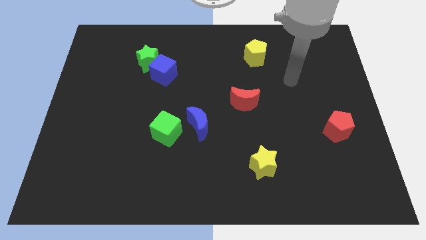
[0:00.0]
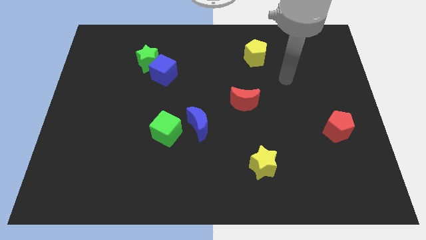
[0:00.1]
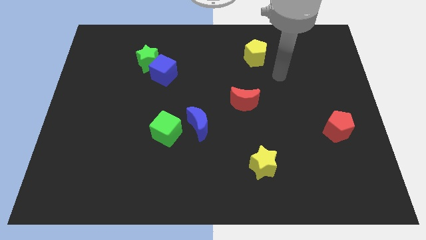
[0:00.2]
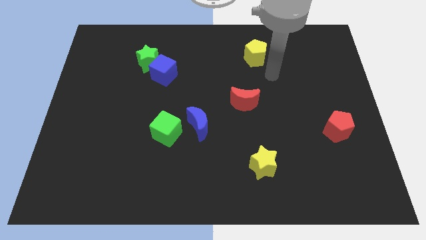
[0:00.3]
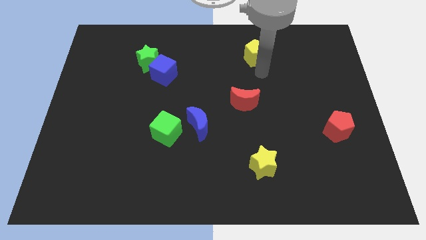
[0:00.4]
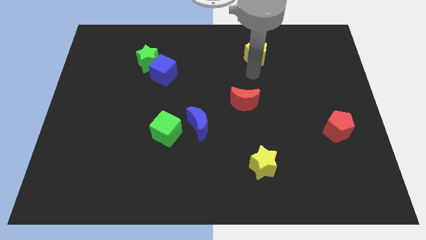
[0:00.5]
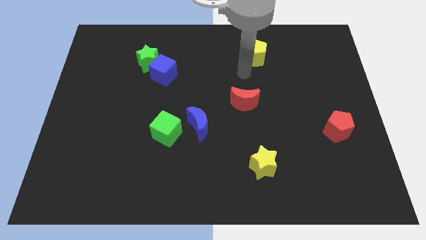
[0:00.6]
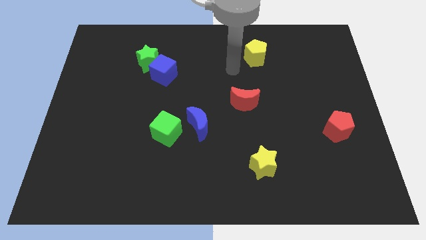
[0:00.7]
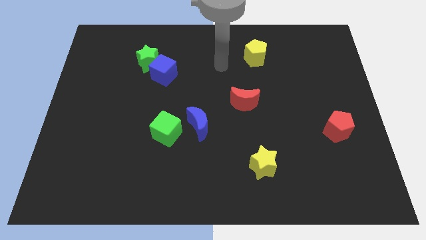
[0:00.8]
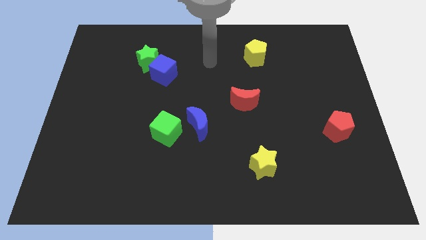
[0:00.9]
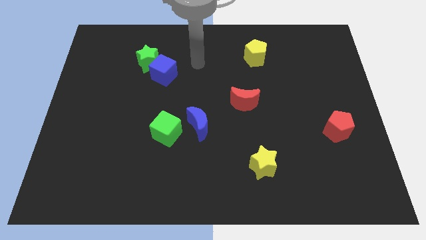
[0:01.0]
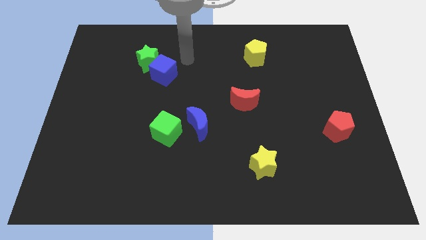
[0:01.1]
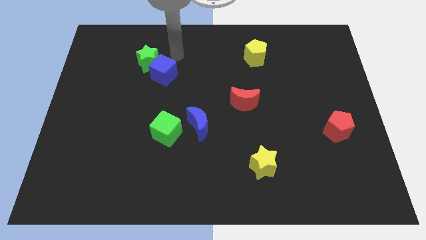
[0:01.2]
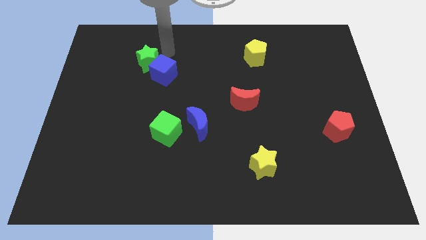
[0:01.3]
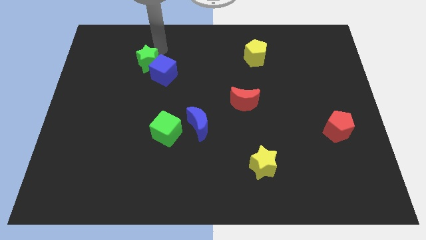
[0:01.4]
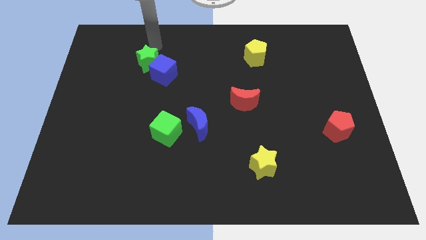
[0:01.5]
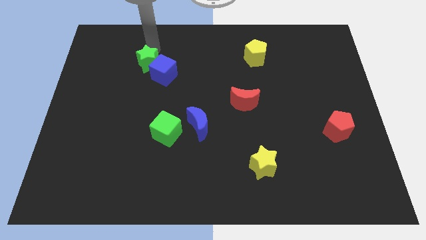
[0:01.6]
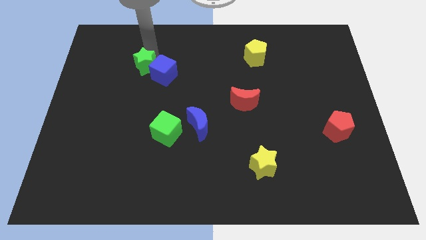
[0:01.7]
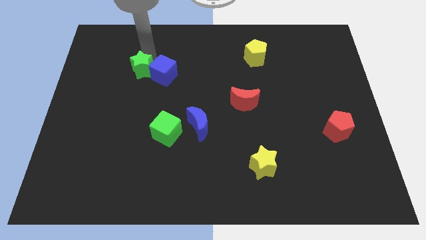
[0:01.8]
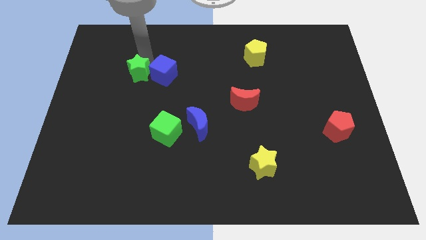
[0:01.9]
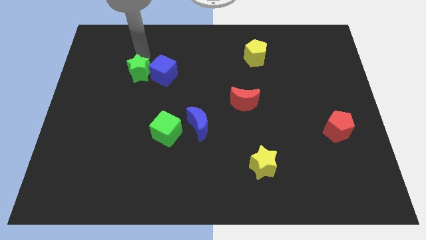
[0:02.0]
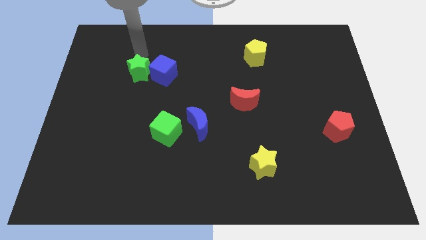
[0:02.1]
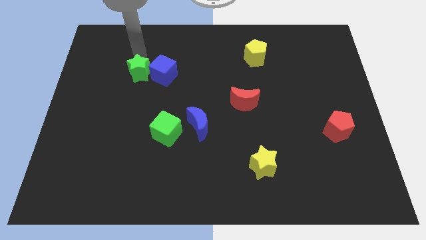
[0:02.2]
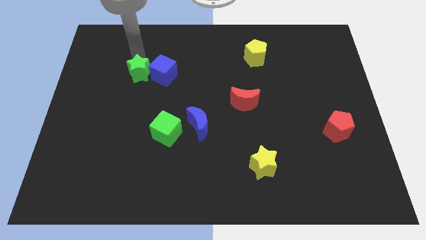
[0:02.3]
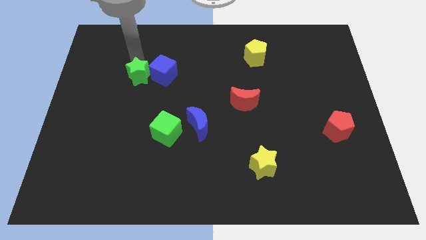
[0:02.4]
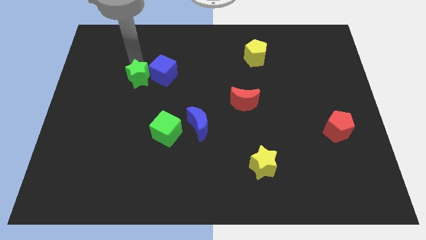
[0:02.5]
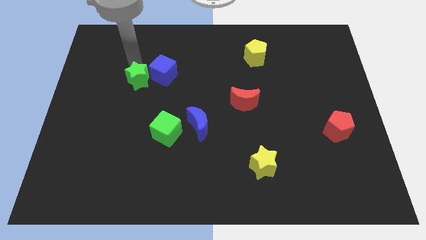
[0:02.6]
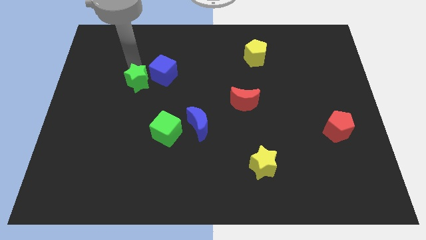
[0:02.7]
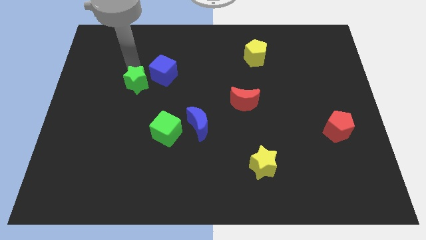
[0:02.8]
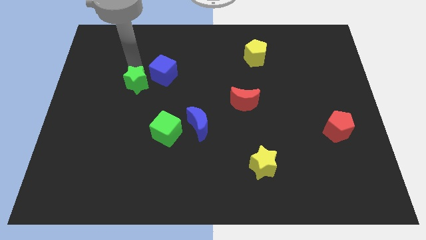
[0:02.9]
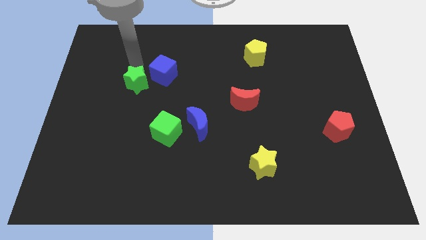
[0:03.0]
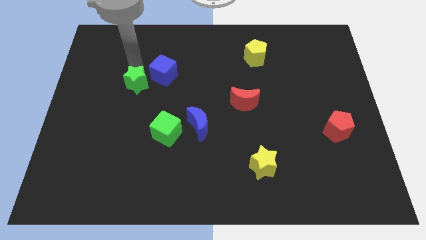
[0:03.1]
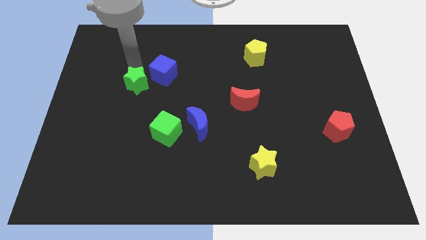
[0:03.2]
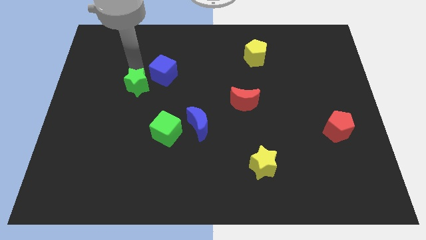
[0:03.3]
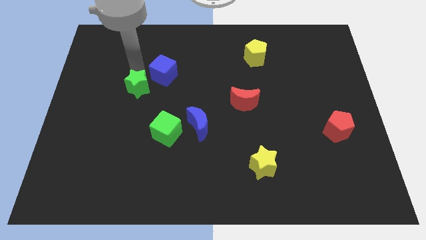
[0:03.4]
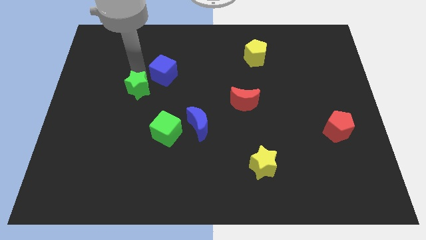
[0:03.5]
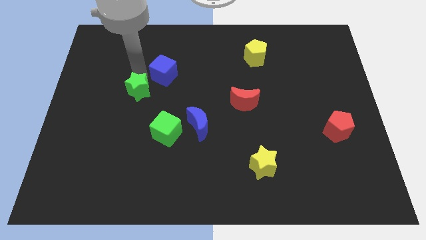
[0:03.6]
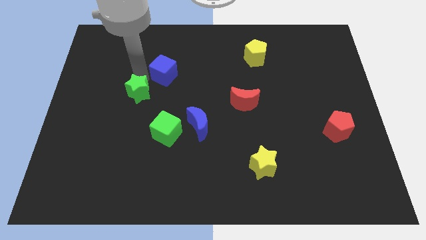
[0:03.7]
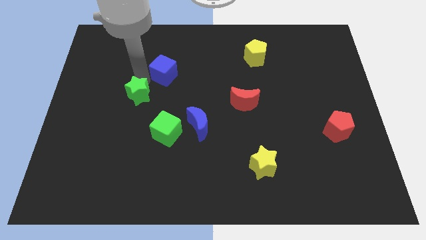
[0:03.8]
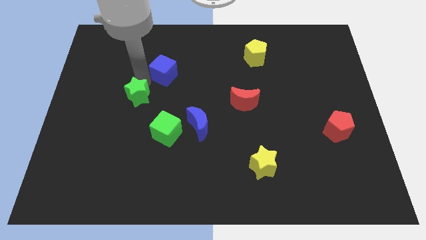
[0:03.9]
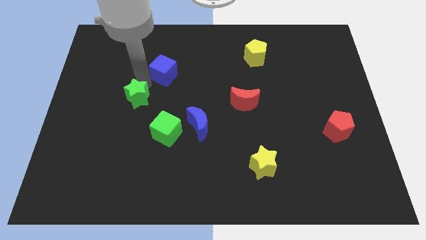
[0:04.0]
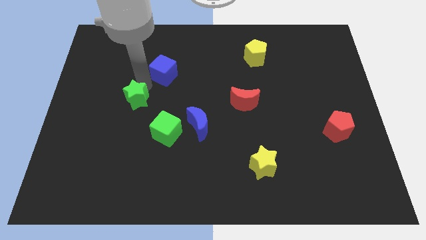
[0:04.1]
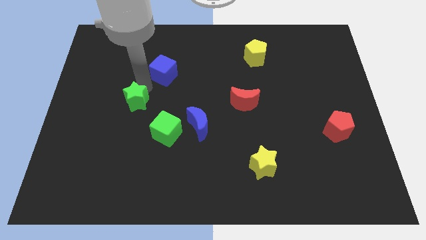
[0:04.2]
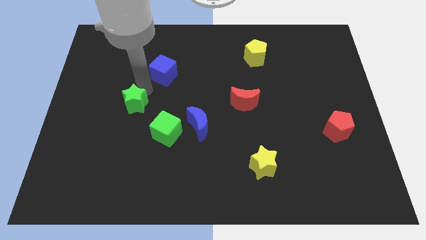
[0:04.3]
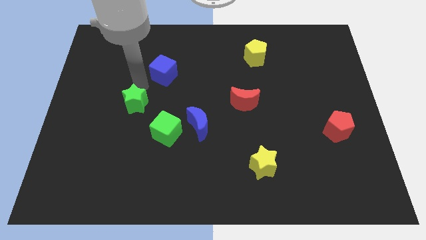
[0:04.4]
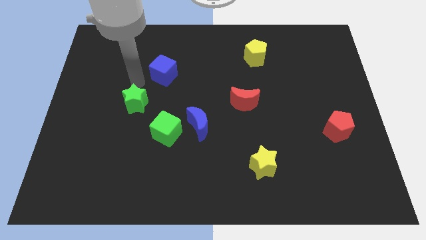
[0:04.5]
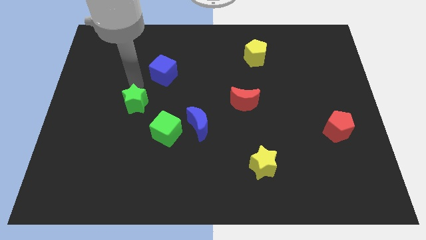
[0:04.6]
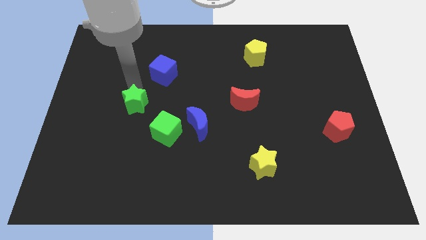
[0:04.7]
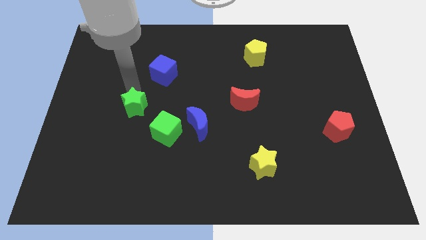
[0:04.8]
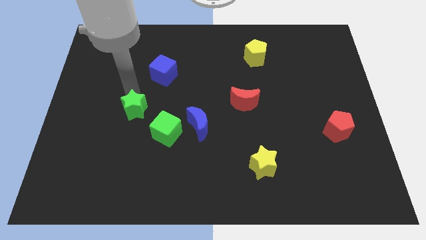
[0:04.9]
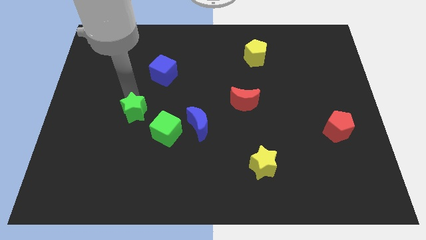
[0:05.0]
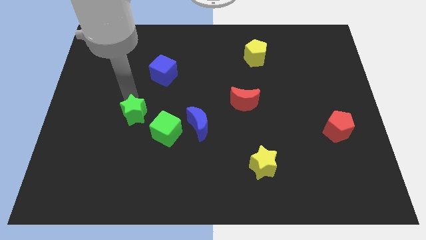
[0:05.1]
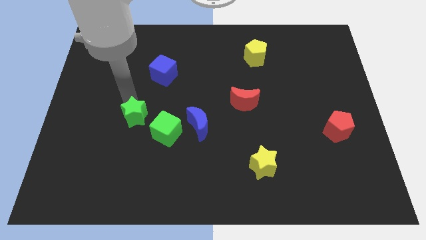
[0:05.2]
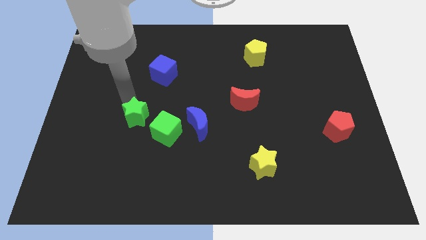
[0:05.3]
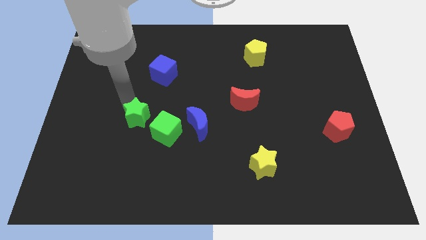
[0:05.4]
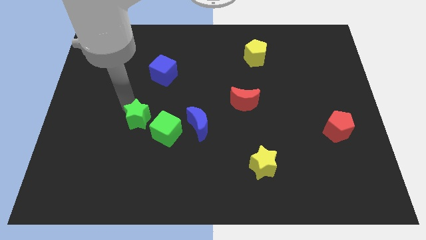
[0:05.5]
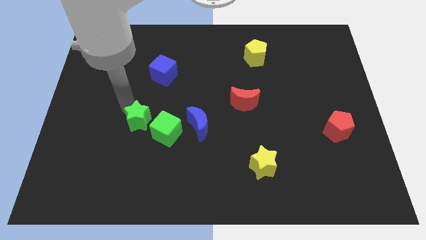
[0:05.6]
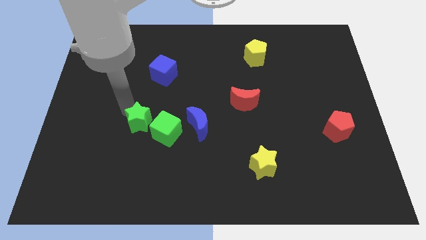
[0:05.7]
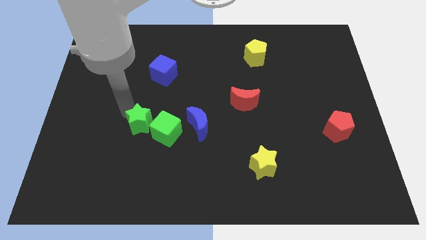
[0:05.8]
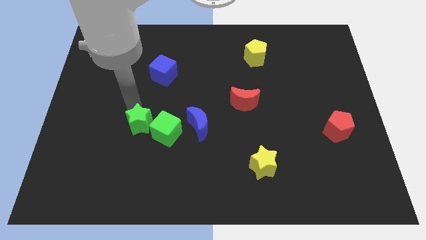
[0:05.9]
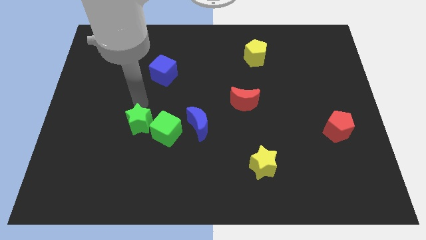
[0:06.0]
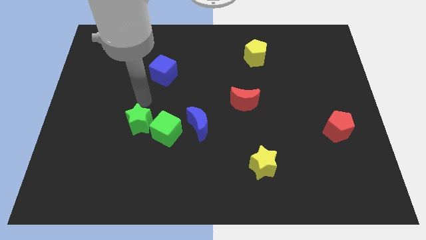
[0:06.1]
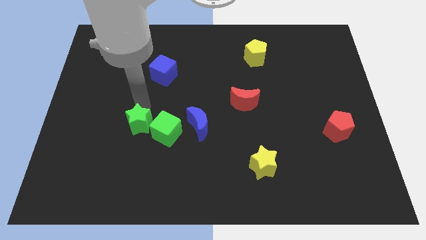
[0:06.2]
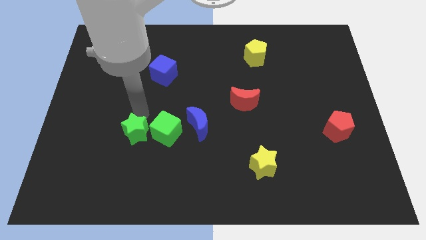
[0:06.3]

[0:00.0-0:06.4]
push the green star downwards

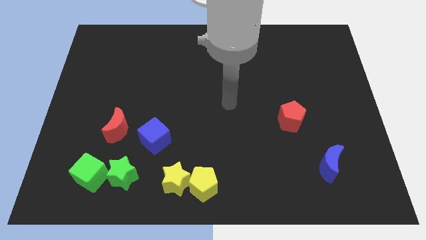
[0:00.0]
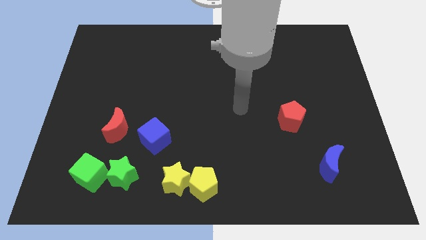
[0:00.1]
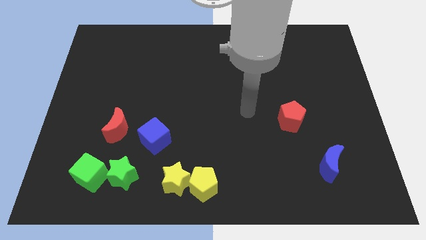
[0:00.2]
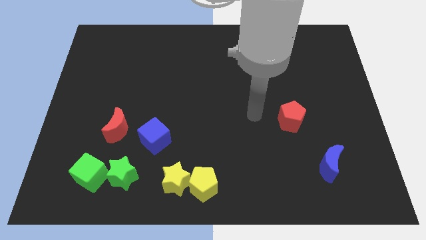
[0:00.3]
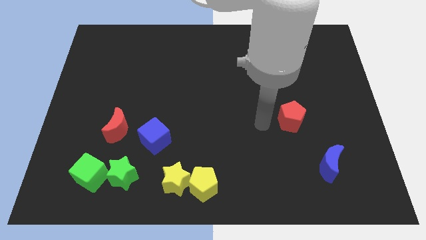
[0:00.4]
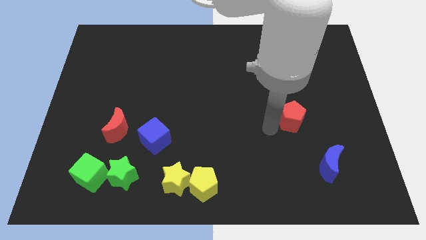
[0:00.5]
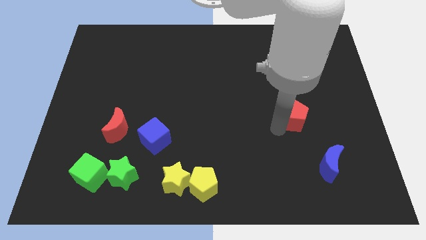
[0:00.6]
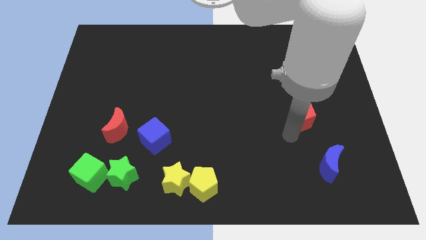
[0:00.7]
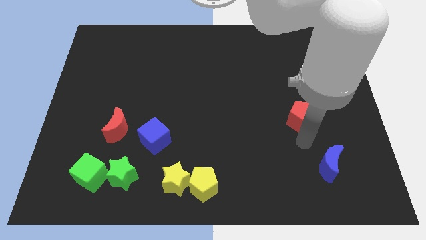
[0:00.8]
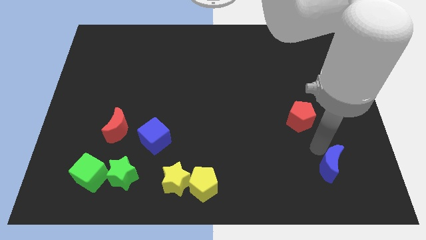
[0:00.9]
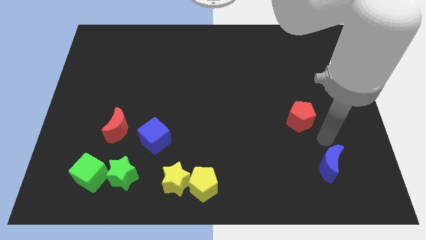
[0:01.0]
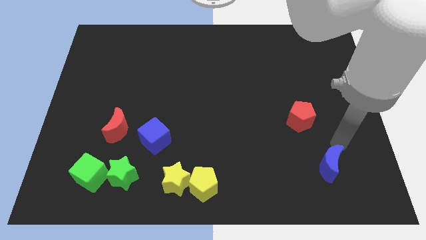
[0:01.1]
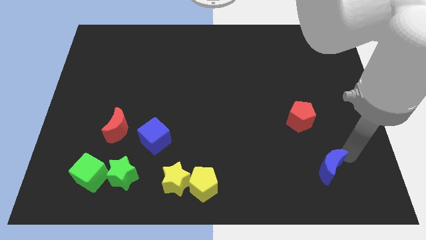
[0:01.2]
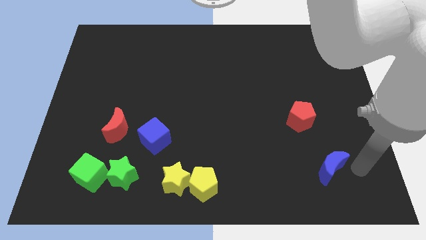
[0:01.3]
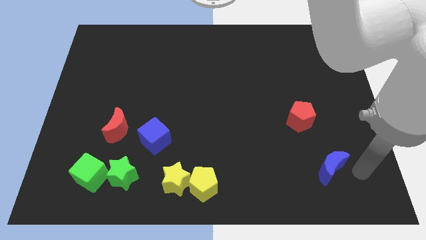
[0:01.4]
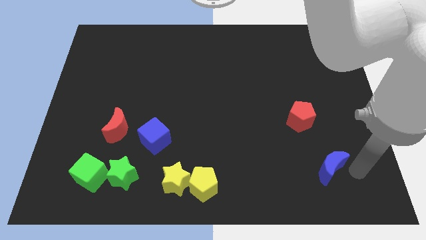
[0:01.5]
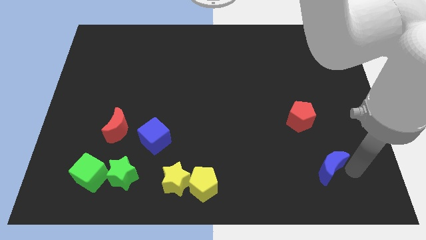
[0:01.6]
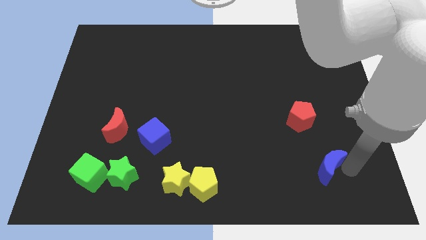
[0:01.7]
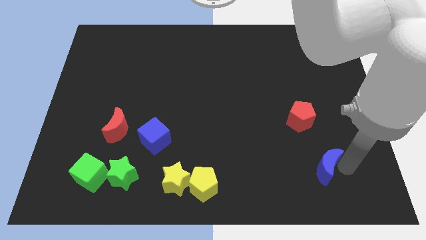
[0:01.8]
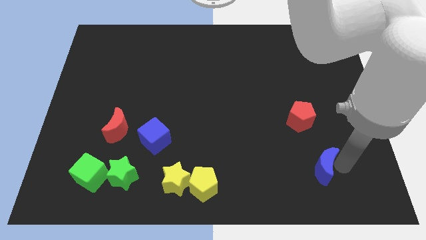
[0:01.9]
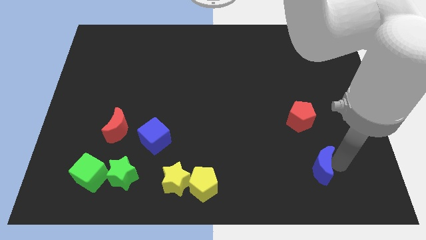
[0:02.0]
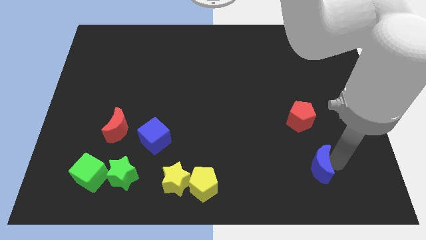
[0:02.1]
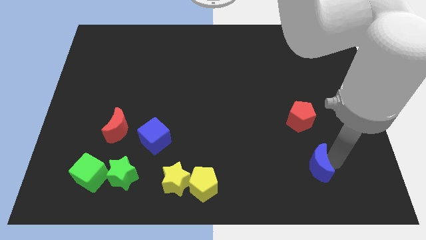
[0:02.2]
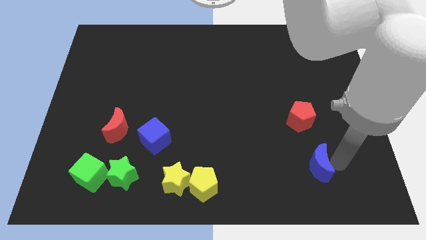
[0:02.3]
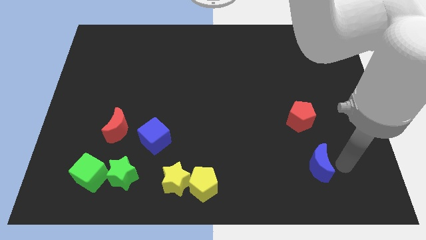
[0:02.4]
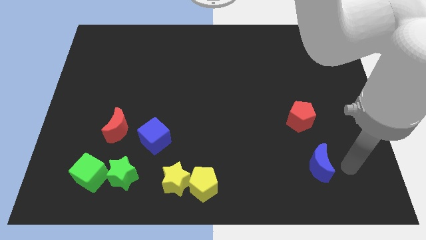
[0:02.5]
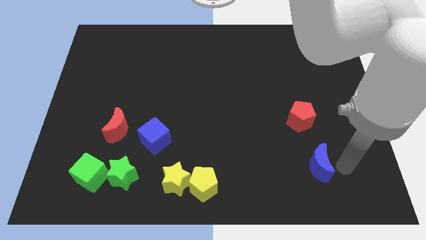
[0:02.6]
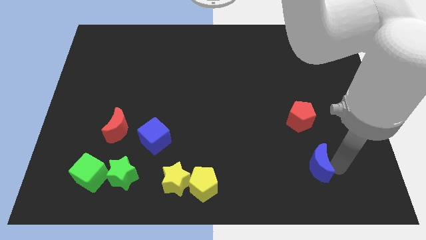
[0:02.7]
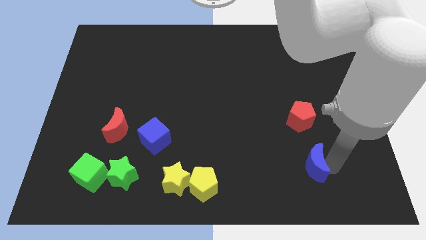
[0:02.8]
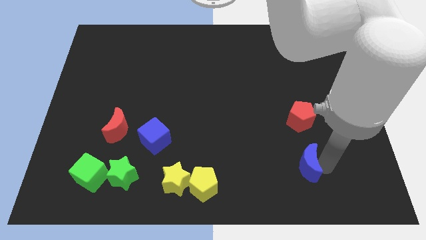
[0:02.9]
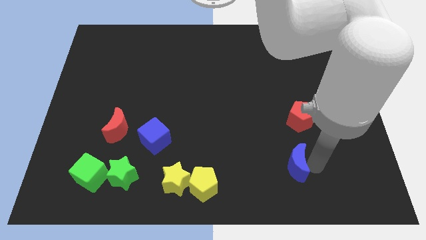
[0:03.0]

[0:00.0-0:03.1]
slightly push the blue moon to the left
